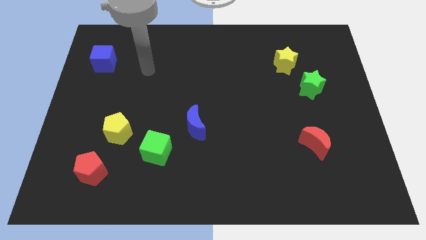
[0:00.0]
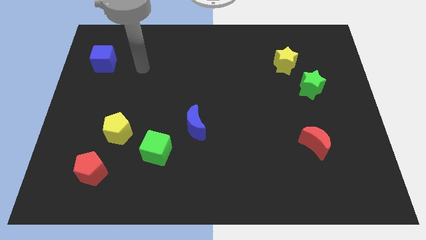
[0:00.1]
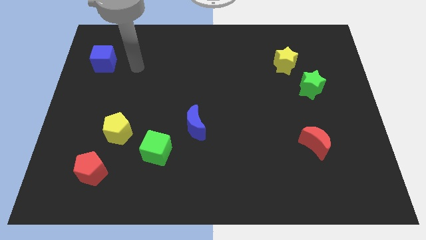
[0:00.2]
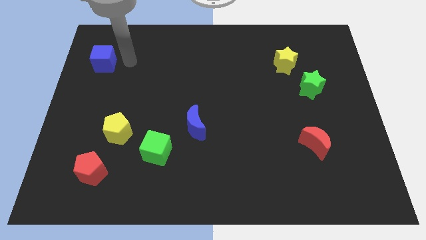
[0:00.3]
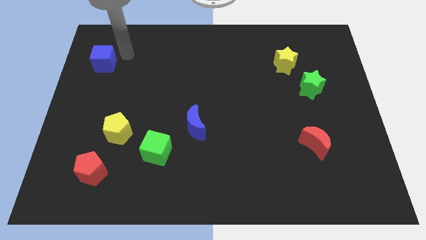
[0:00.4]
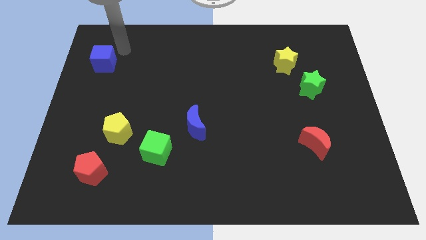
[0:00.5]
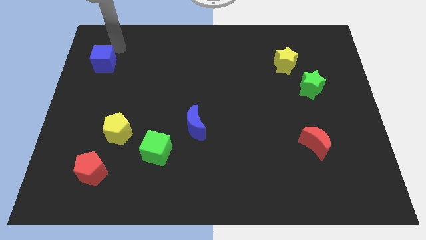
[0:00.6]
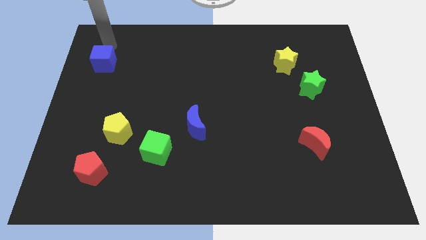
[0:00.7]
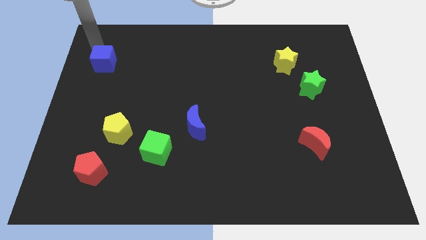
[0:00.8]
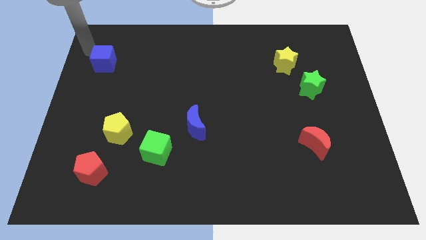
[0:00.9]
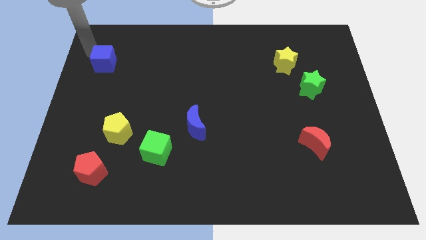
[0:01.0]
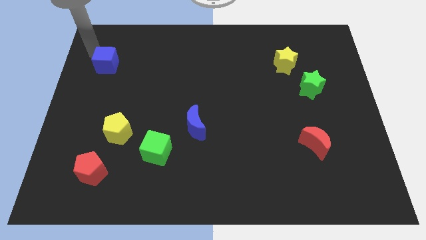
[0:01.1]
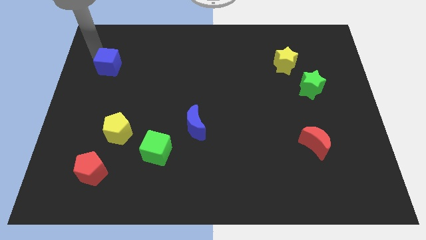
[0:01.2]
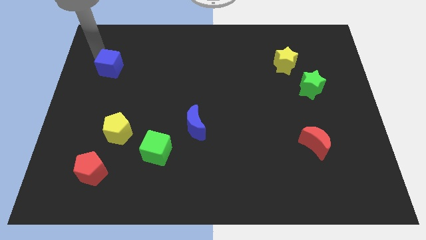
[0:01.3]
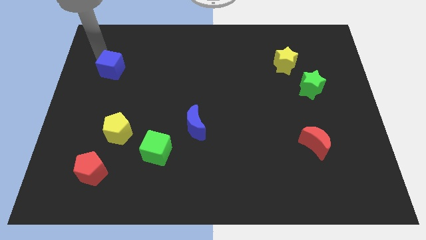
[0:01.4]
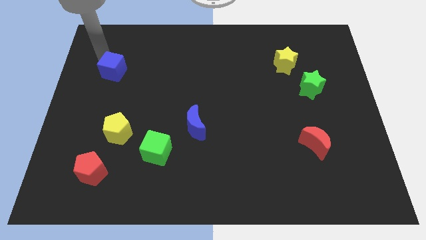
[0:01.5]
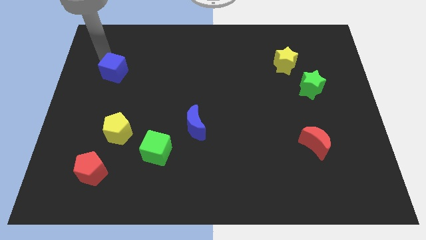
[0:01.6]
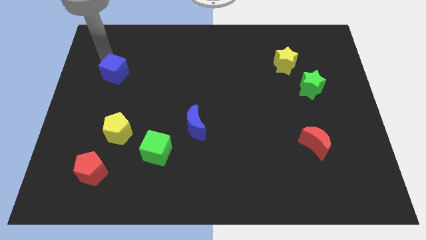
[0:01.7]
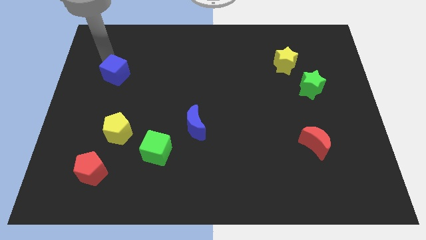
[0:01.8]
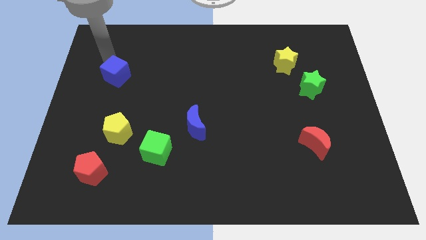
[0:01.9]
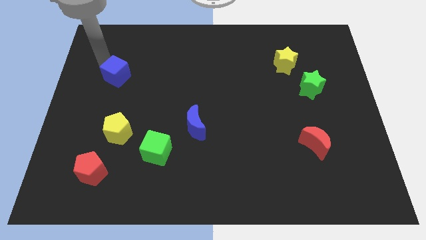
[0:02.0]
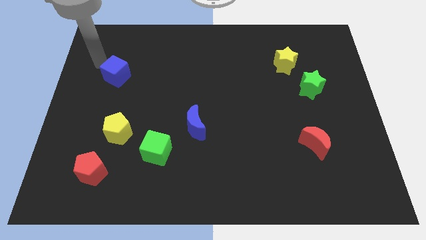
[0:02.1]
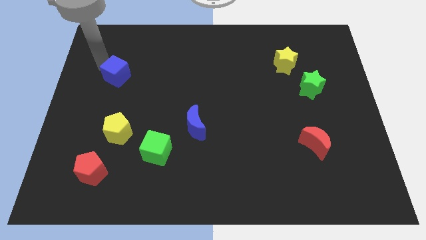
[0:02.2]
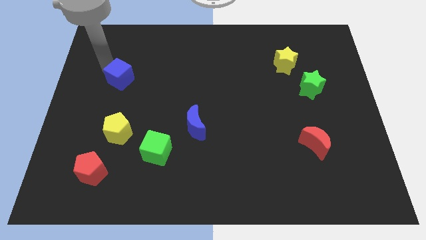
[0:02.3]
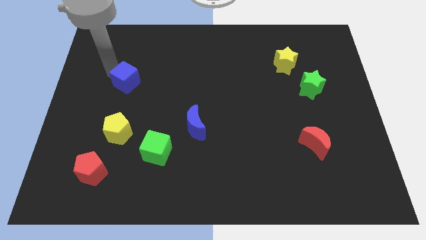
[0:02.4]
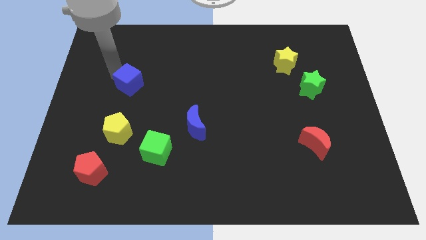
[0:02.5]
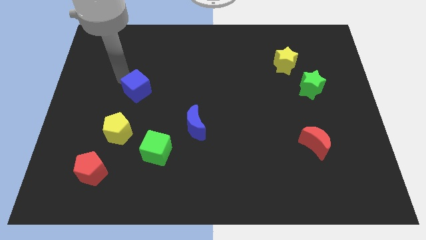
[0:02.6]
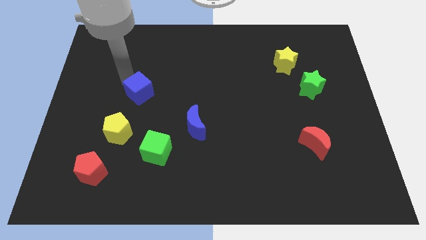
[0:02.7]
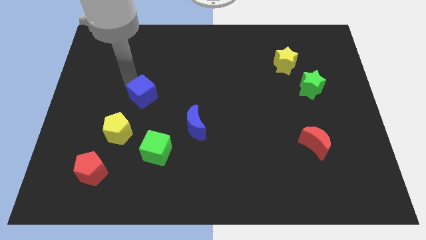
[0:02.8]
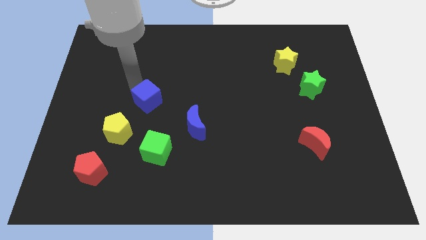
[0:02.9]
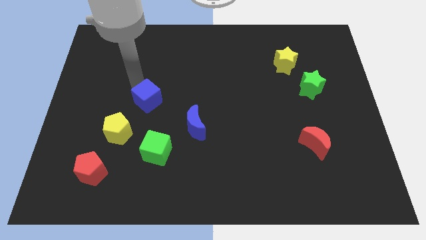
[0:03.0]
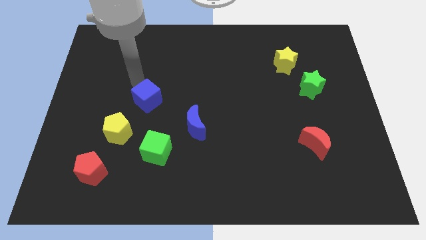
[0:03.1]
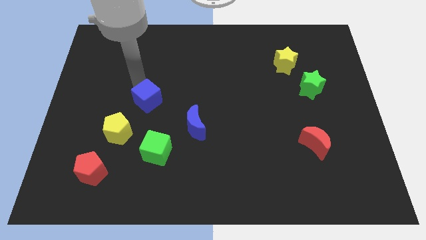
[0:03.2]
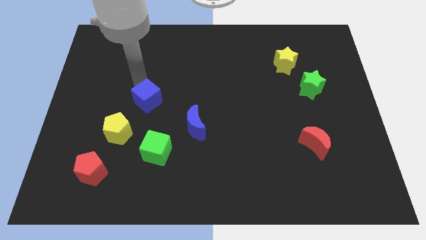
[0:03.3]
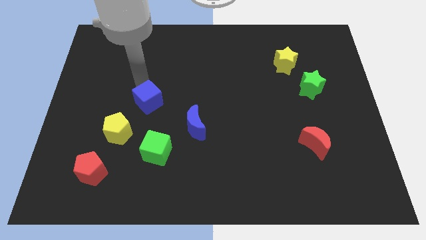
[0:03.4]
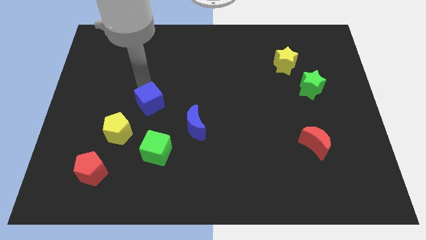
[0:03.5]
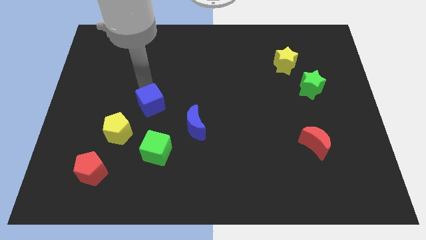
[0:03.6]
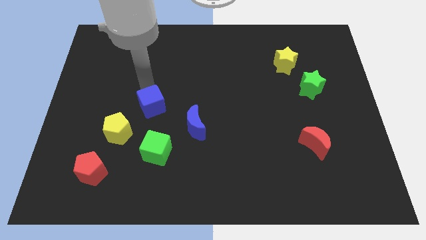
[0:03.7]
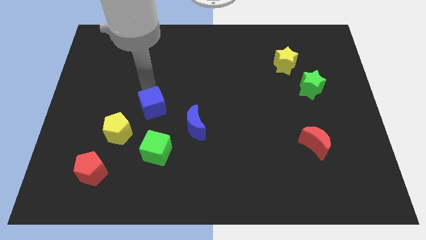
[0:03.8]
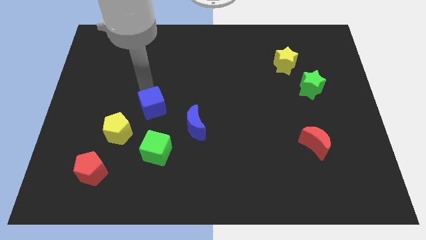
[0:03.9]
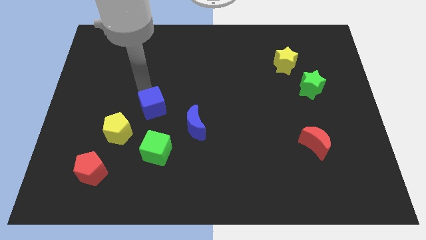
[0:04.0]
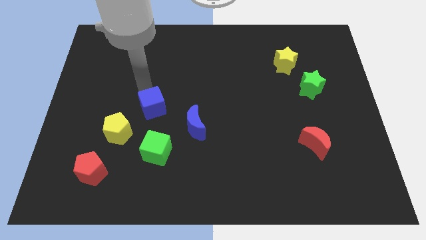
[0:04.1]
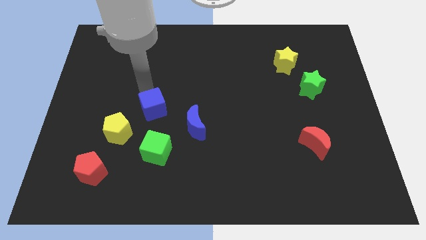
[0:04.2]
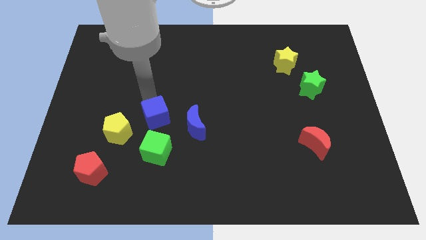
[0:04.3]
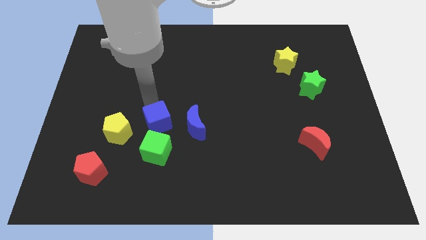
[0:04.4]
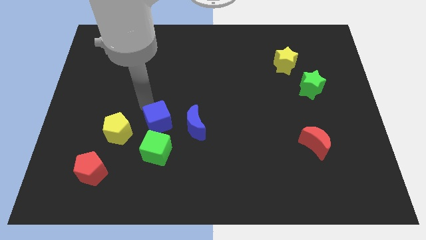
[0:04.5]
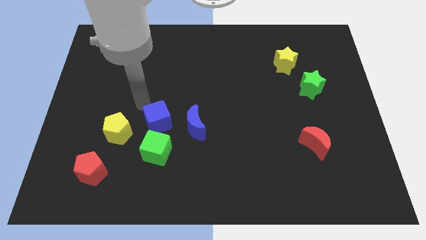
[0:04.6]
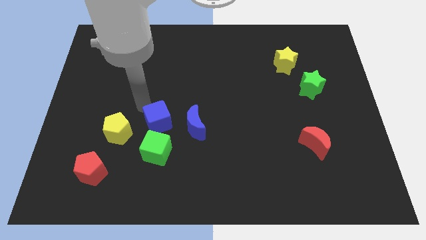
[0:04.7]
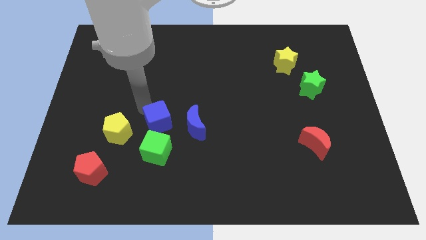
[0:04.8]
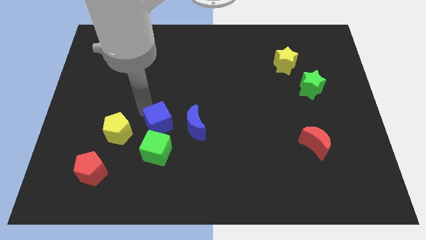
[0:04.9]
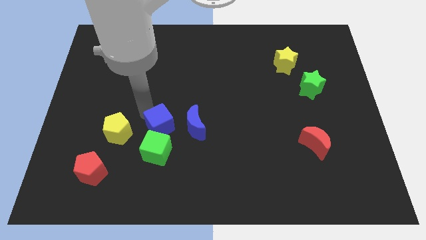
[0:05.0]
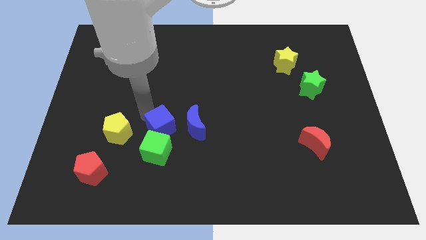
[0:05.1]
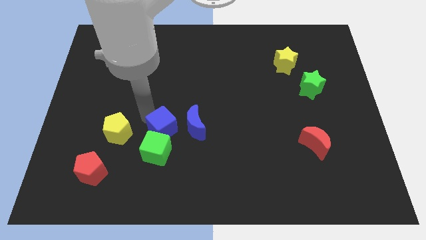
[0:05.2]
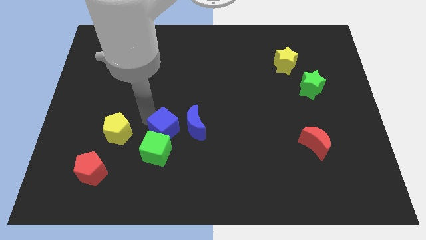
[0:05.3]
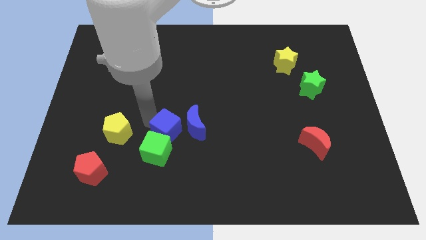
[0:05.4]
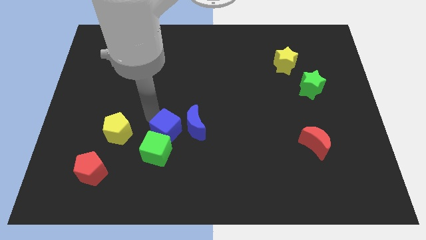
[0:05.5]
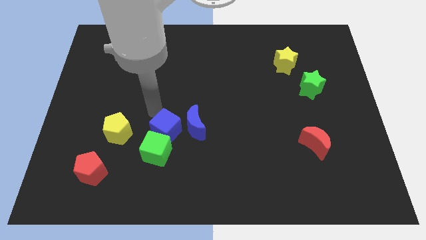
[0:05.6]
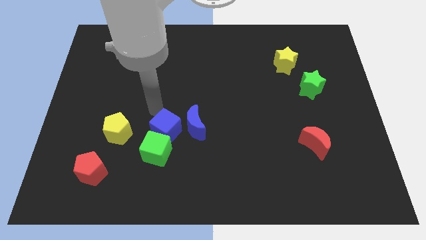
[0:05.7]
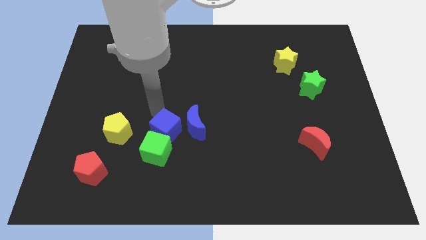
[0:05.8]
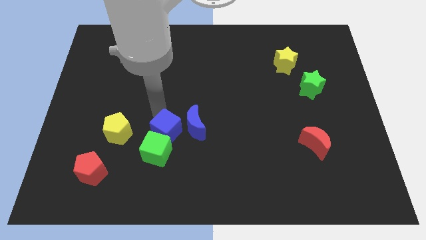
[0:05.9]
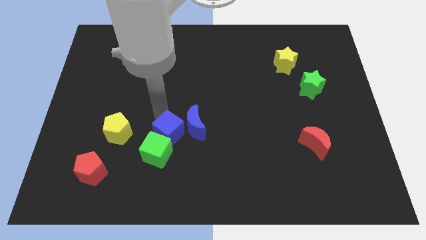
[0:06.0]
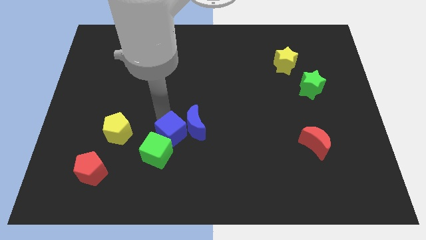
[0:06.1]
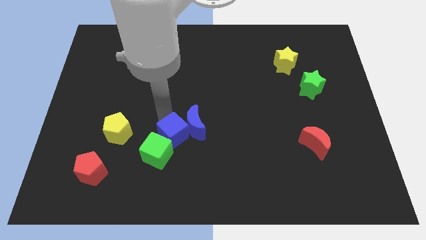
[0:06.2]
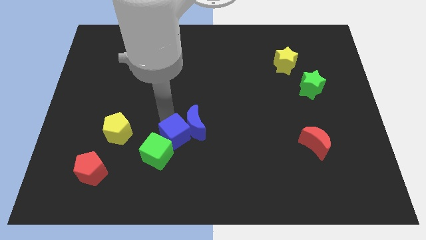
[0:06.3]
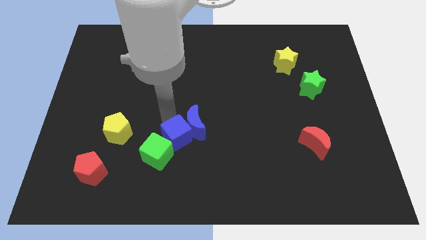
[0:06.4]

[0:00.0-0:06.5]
push the blue cube to the bottom side of the blue moon
